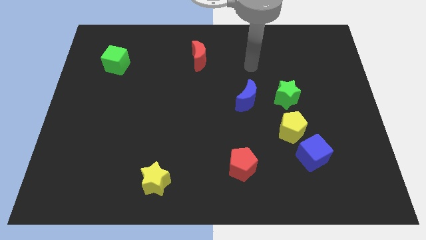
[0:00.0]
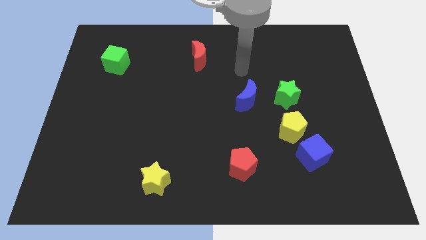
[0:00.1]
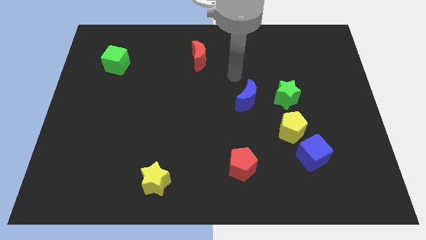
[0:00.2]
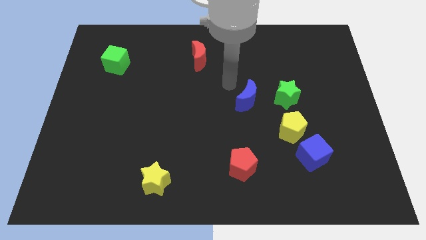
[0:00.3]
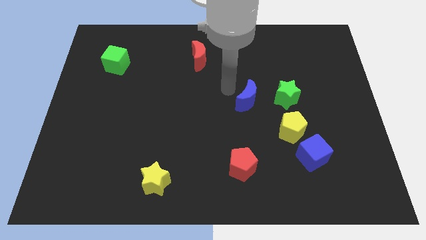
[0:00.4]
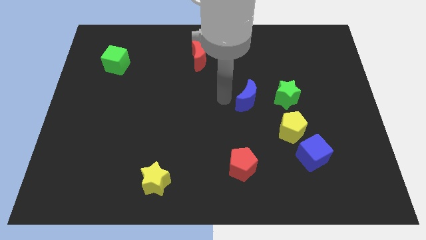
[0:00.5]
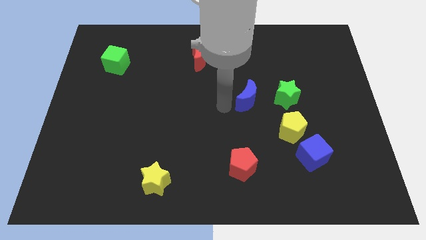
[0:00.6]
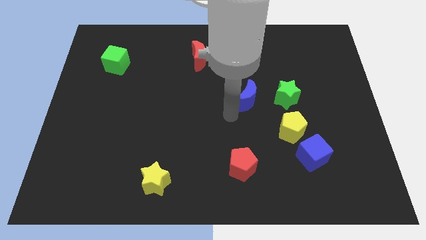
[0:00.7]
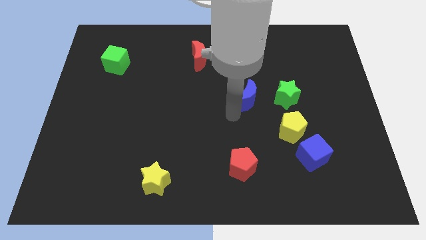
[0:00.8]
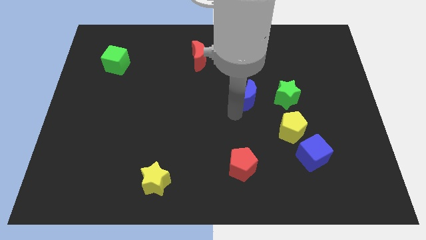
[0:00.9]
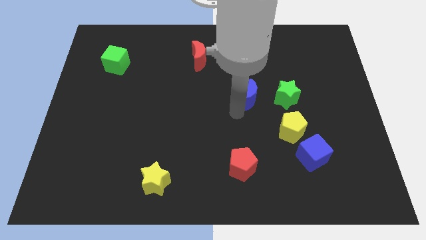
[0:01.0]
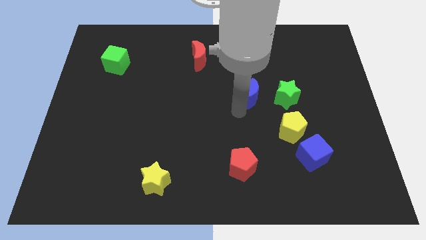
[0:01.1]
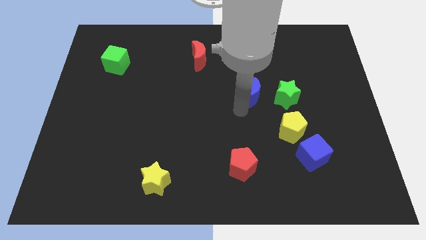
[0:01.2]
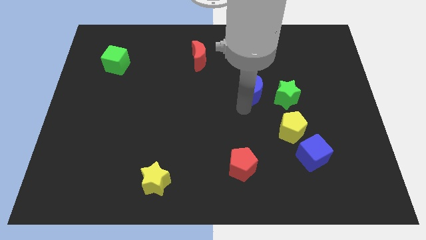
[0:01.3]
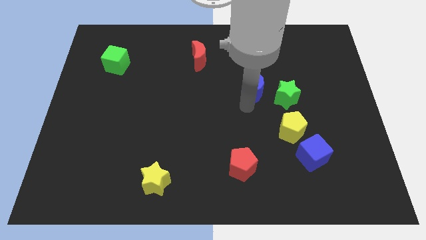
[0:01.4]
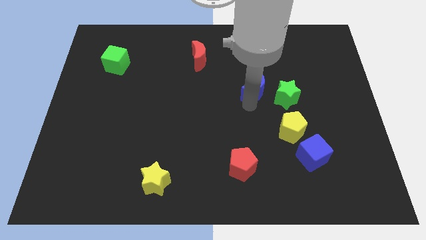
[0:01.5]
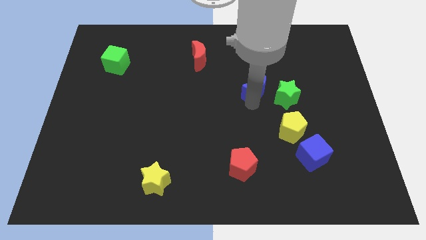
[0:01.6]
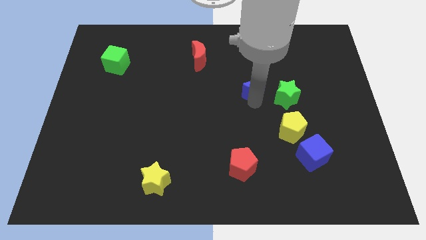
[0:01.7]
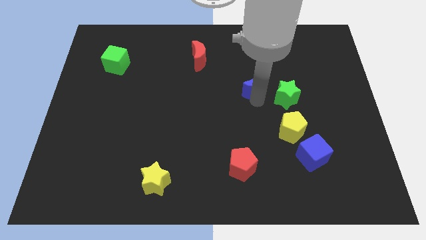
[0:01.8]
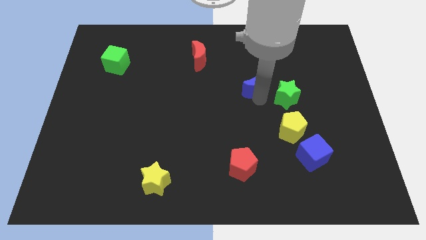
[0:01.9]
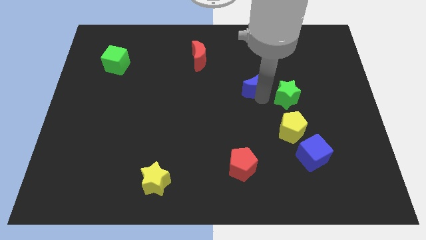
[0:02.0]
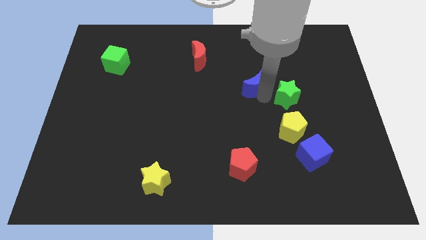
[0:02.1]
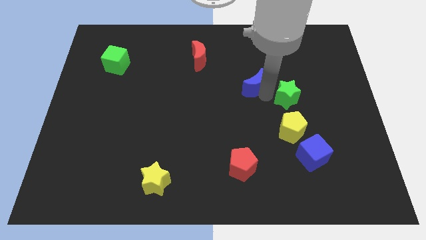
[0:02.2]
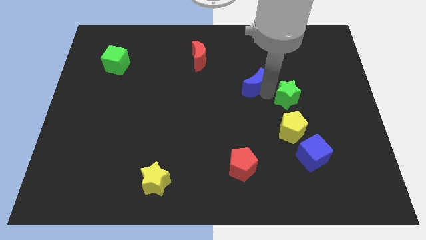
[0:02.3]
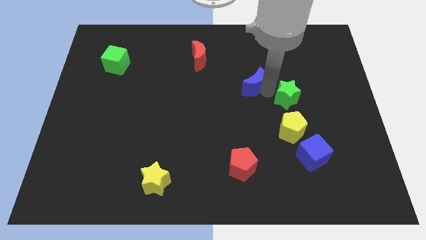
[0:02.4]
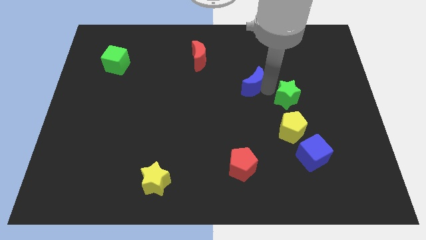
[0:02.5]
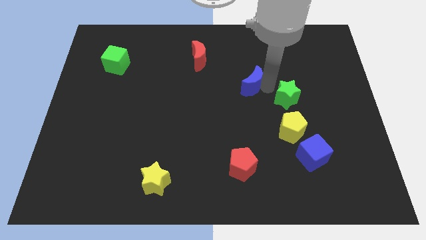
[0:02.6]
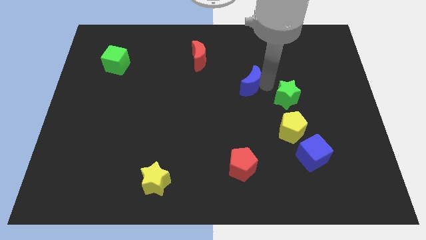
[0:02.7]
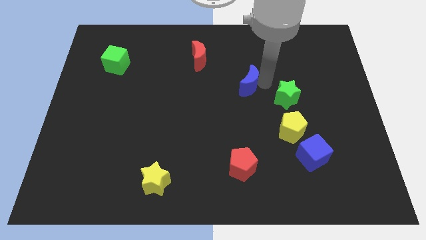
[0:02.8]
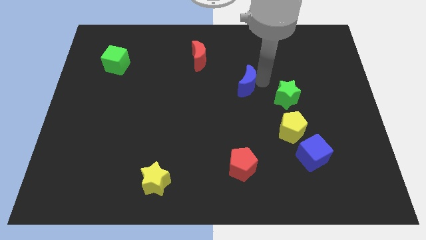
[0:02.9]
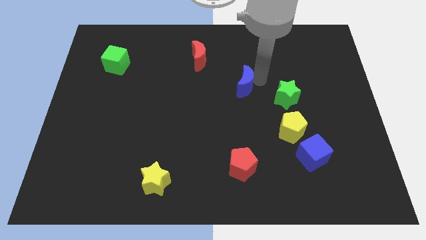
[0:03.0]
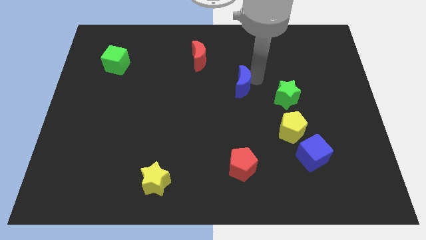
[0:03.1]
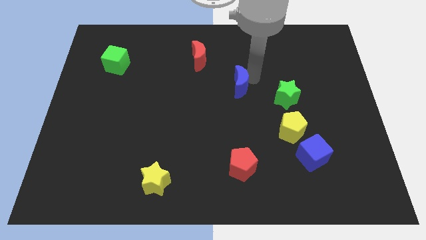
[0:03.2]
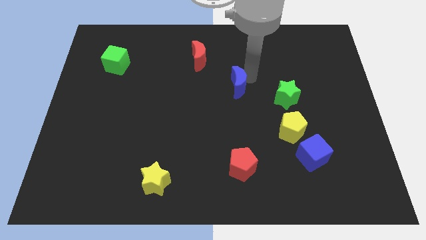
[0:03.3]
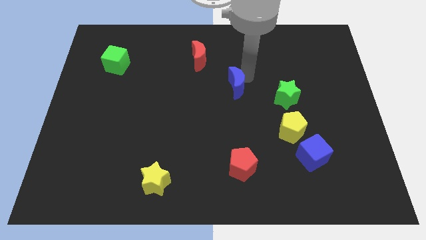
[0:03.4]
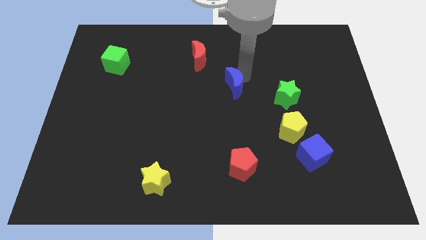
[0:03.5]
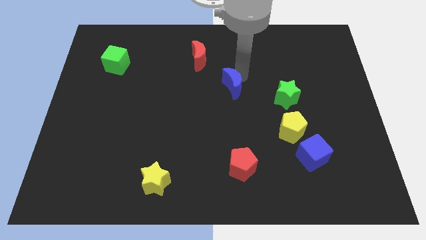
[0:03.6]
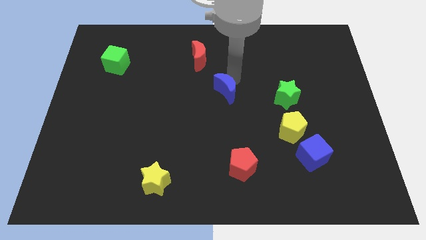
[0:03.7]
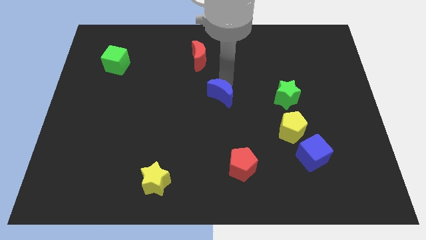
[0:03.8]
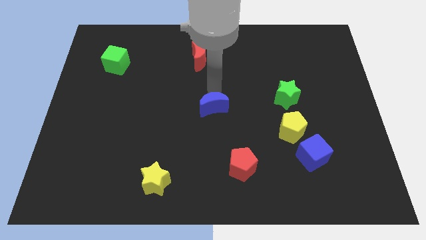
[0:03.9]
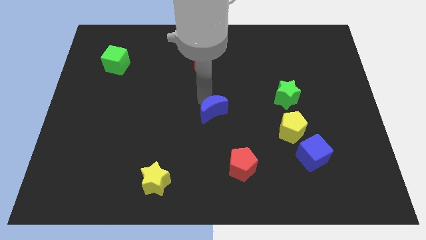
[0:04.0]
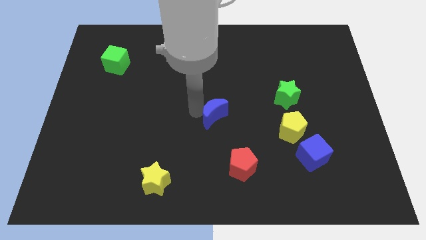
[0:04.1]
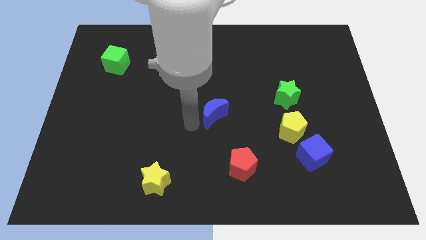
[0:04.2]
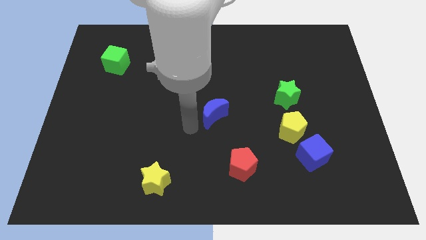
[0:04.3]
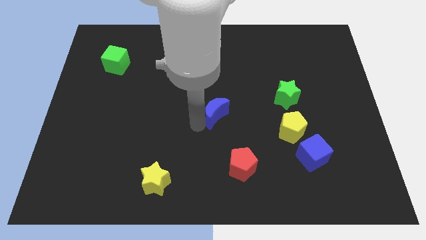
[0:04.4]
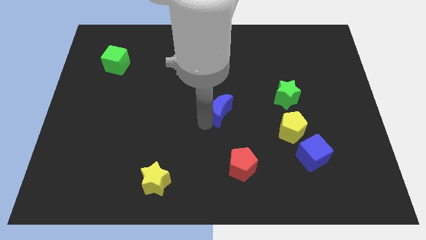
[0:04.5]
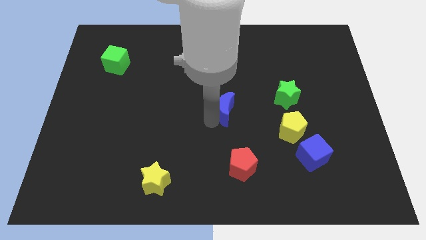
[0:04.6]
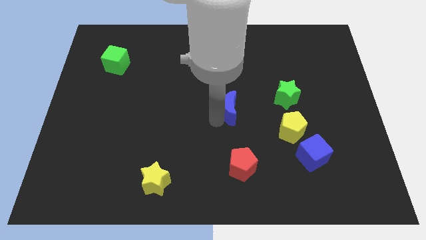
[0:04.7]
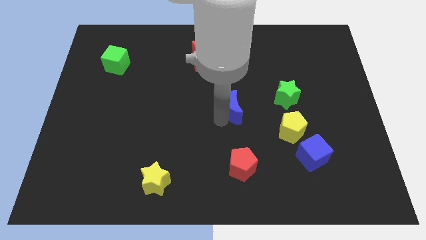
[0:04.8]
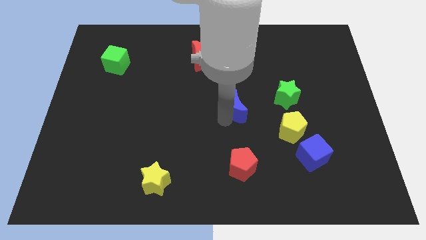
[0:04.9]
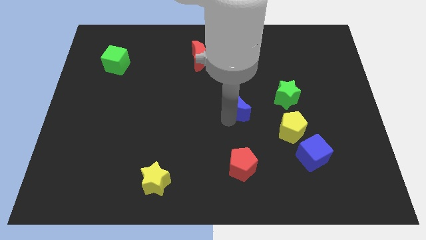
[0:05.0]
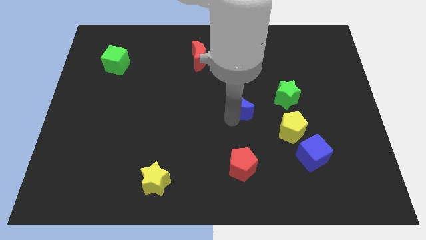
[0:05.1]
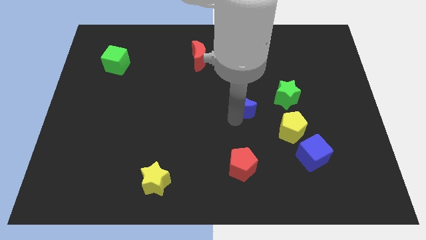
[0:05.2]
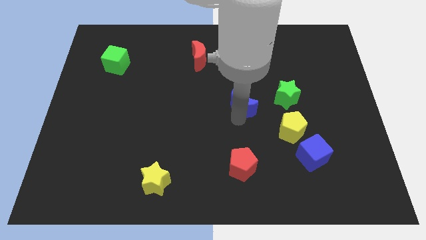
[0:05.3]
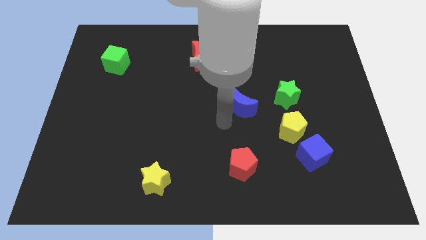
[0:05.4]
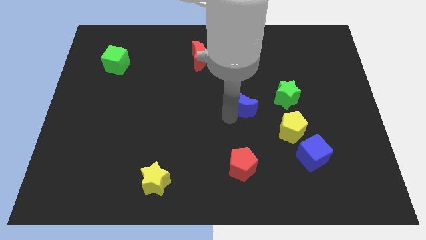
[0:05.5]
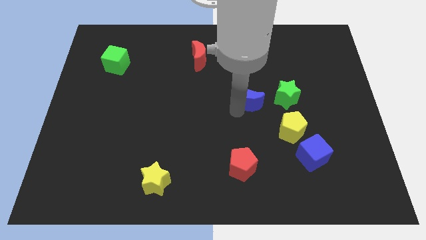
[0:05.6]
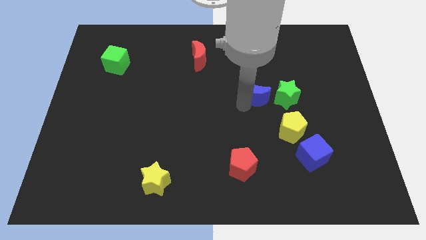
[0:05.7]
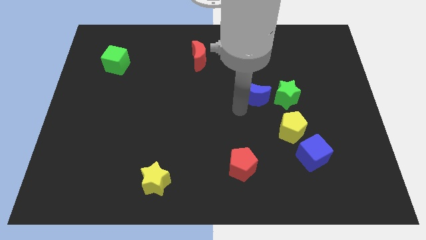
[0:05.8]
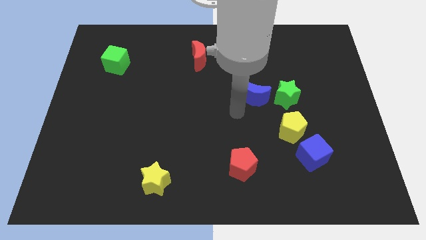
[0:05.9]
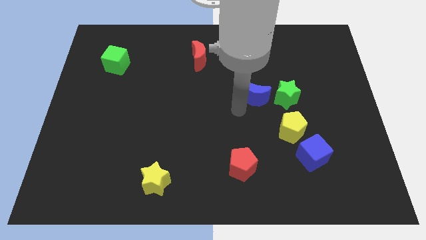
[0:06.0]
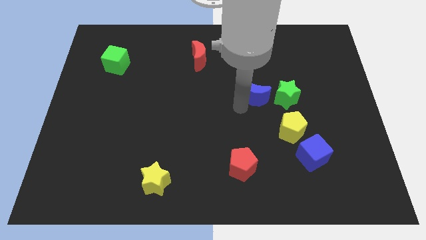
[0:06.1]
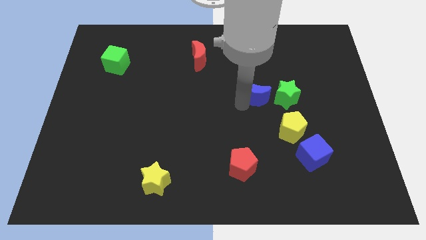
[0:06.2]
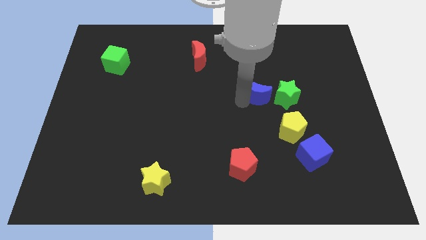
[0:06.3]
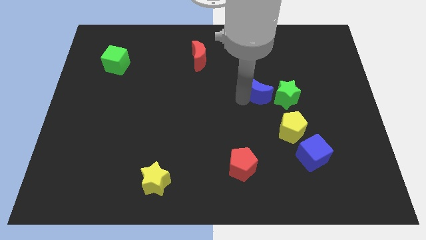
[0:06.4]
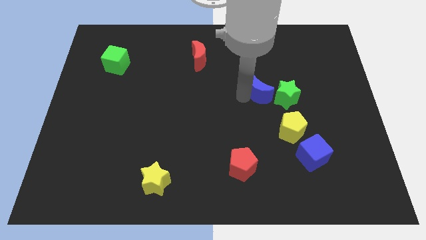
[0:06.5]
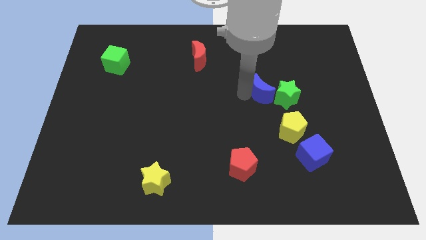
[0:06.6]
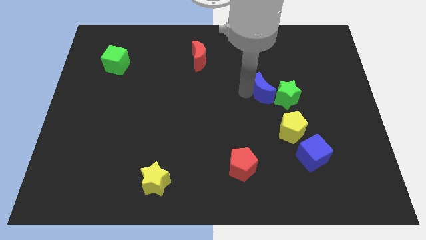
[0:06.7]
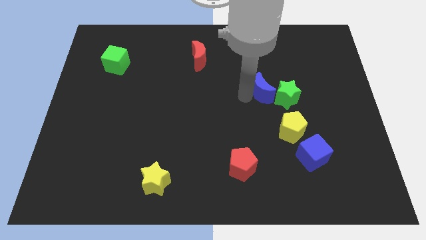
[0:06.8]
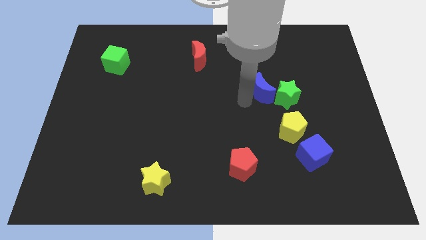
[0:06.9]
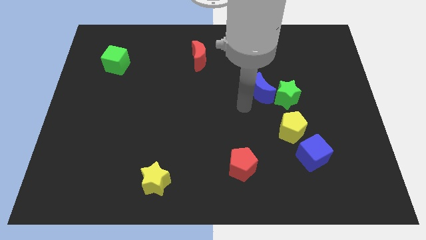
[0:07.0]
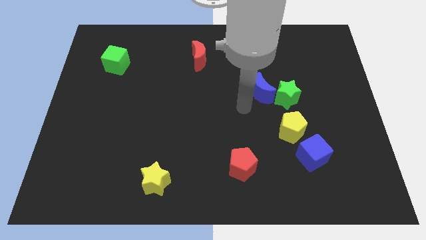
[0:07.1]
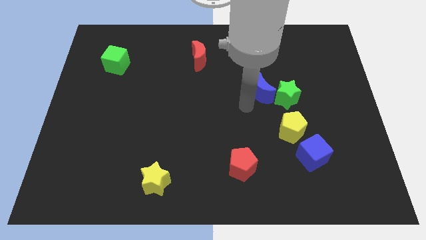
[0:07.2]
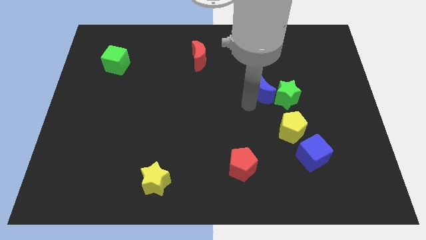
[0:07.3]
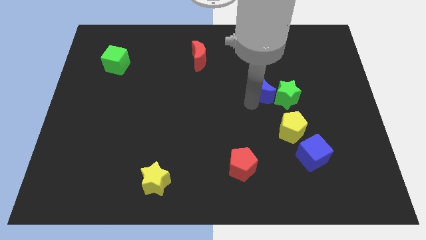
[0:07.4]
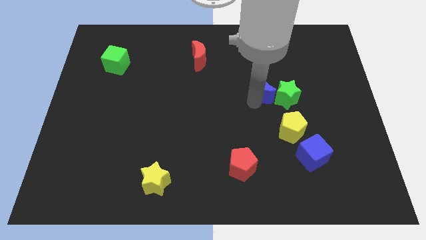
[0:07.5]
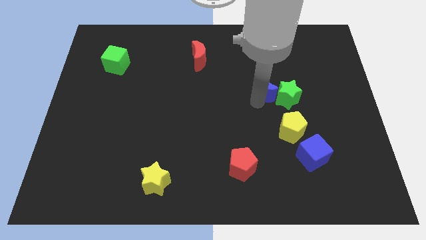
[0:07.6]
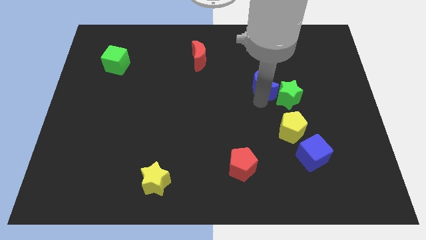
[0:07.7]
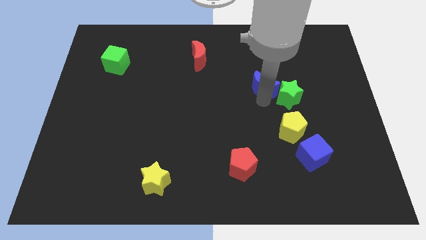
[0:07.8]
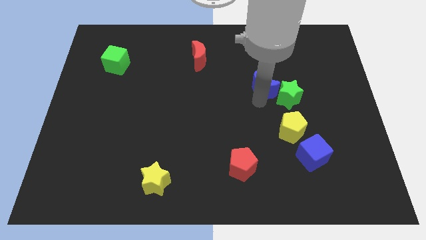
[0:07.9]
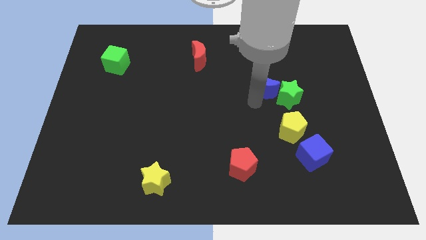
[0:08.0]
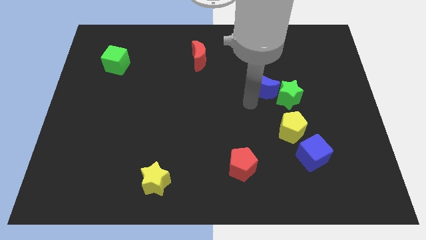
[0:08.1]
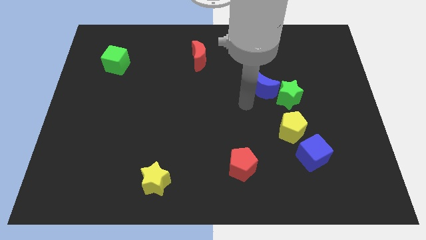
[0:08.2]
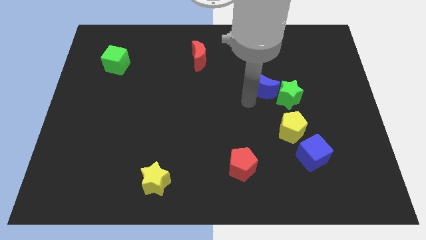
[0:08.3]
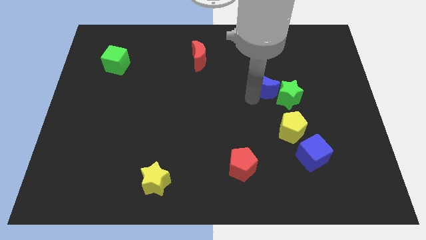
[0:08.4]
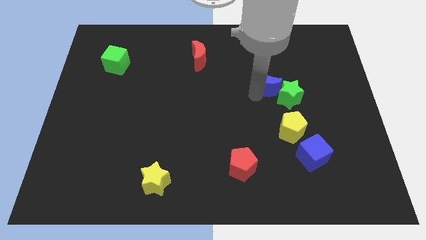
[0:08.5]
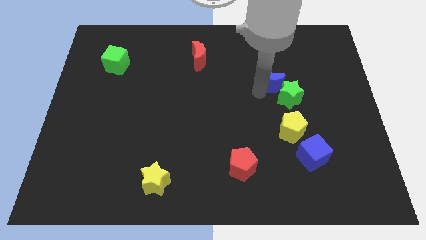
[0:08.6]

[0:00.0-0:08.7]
slide the blue moon upwards and then to the right somewhat
